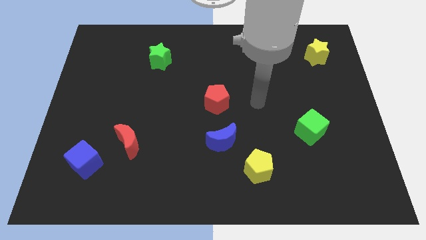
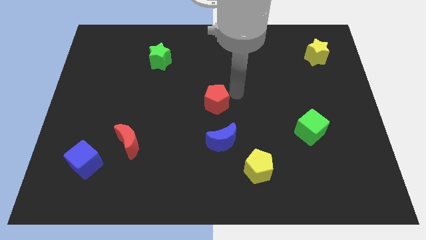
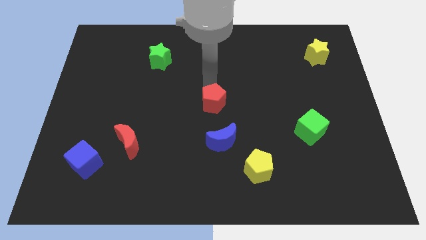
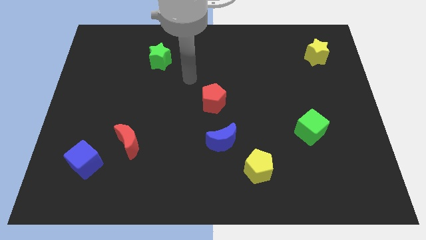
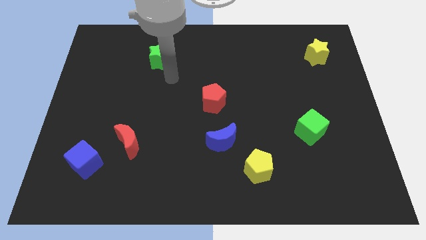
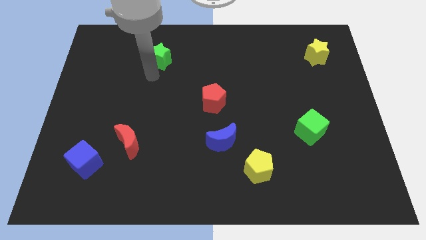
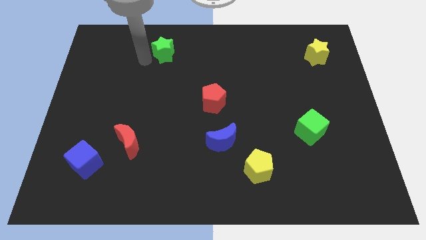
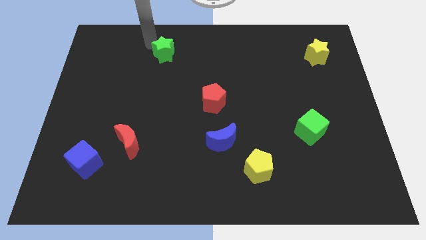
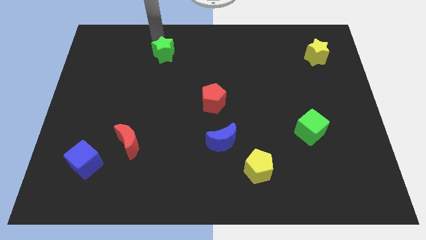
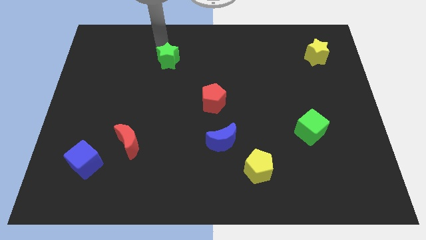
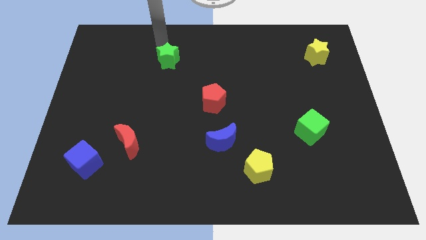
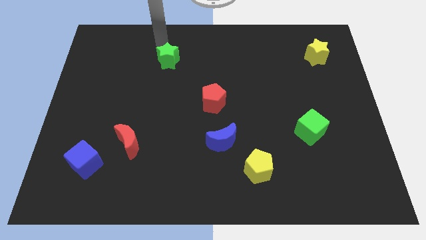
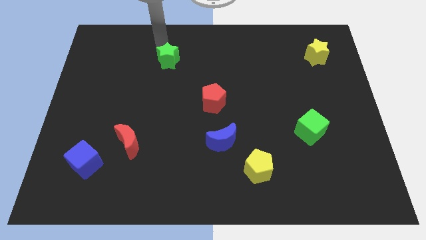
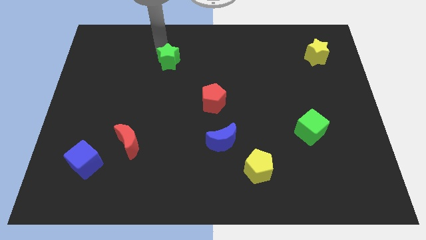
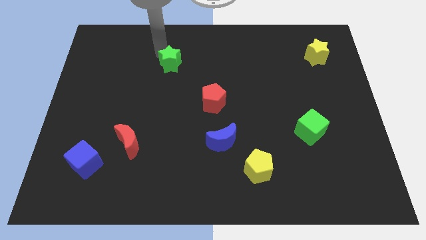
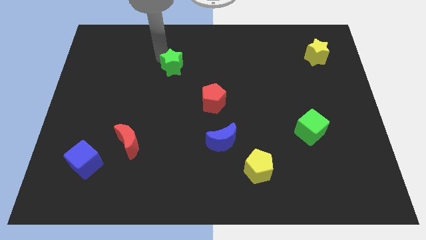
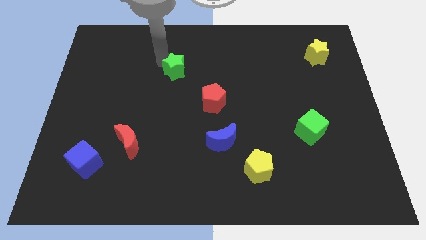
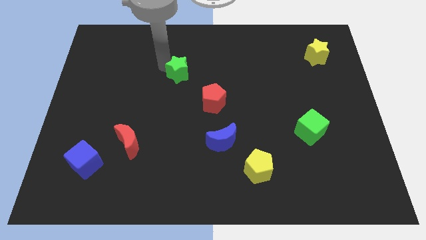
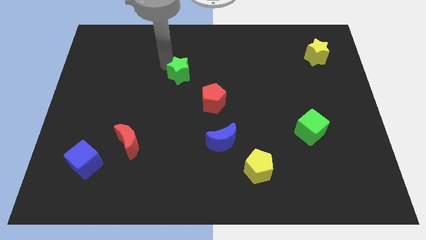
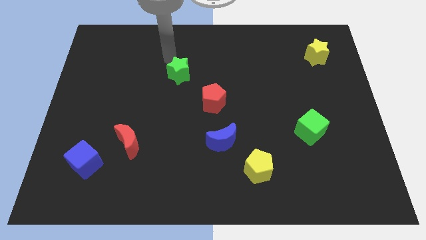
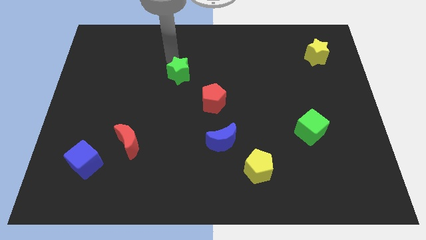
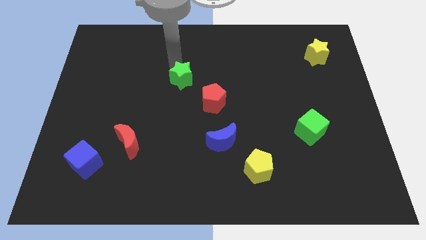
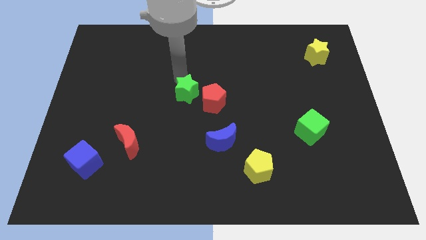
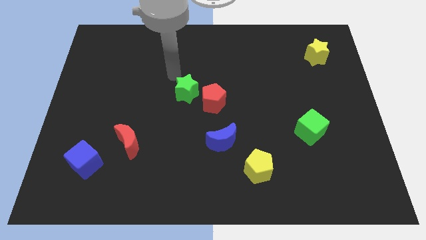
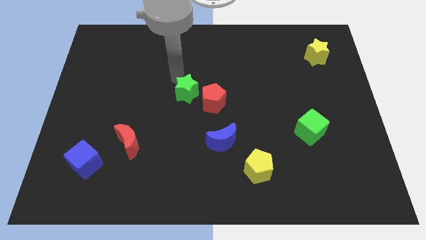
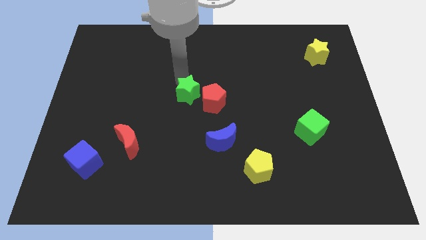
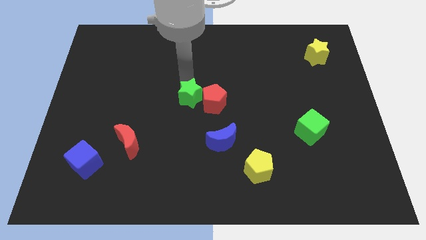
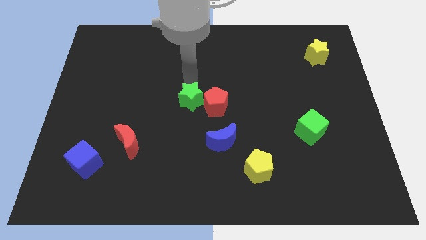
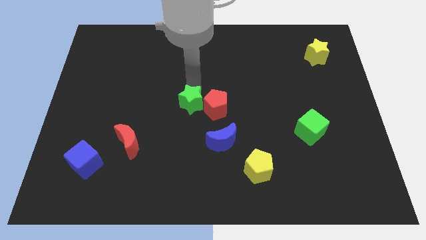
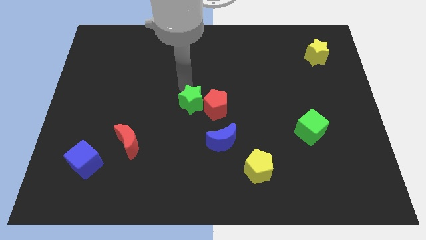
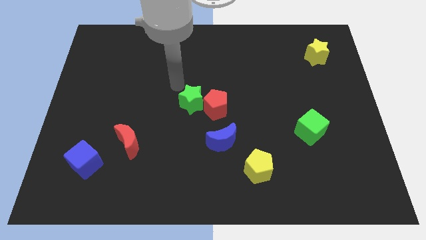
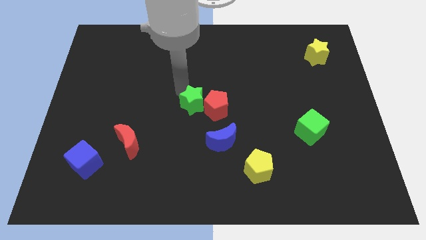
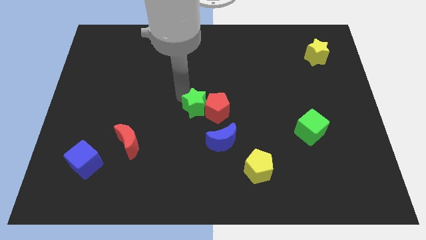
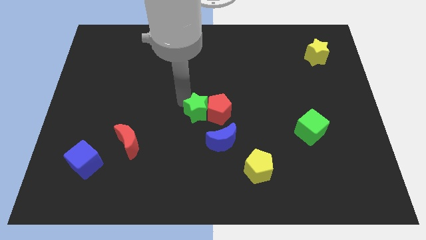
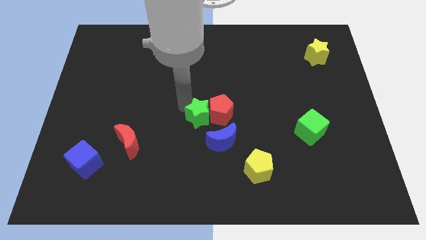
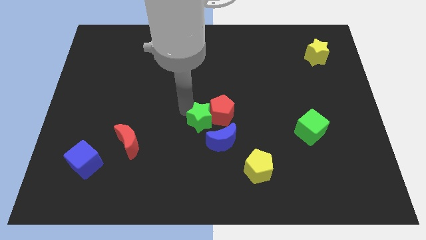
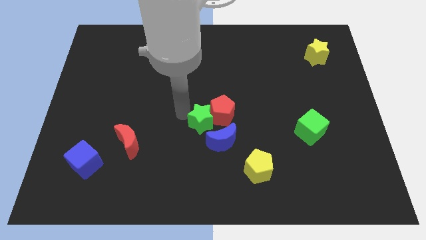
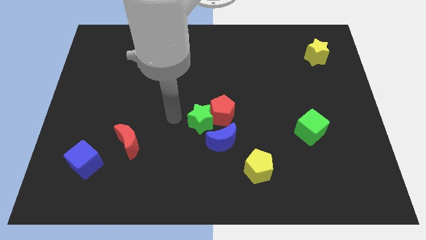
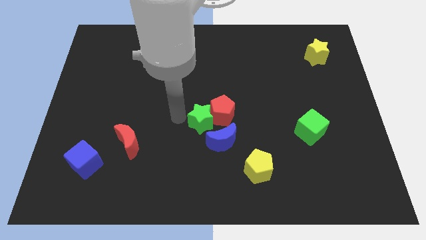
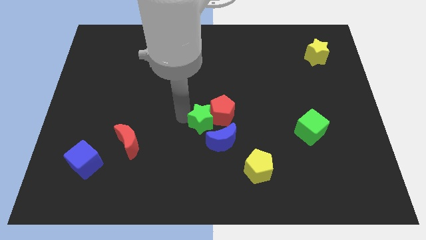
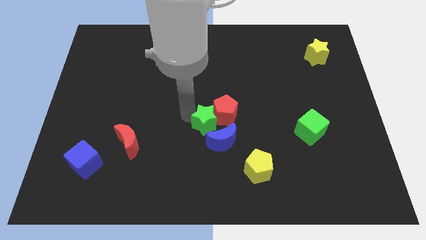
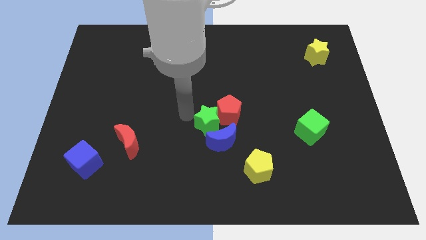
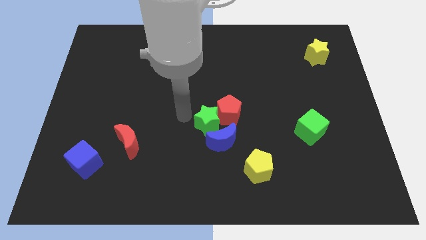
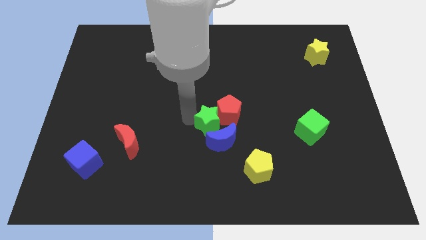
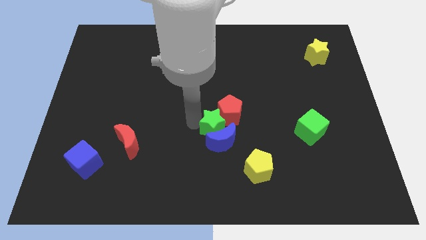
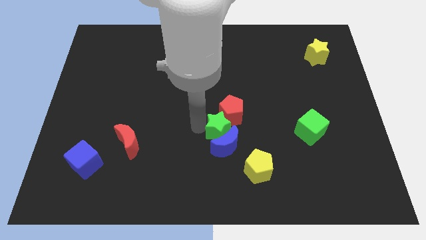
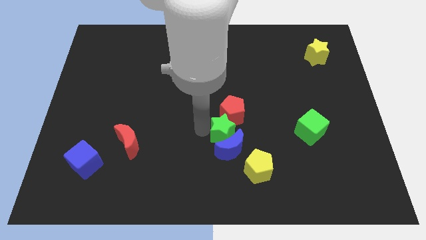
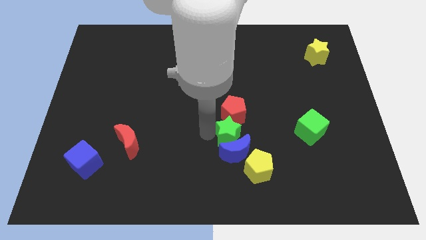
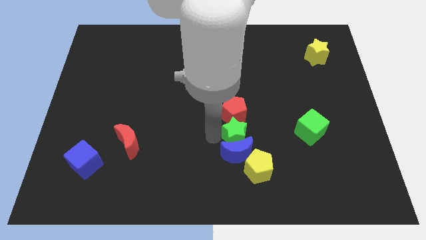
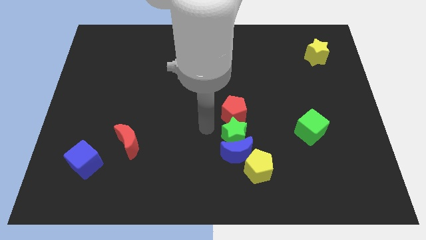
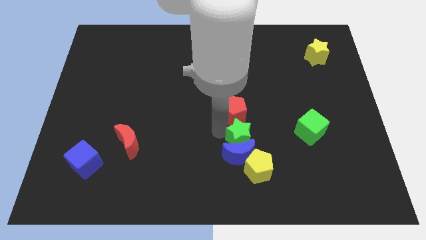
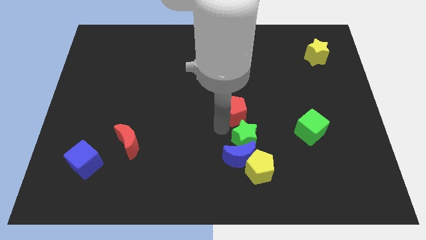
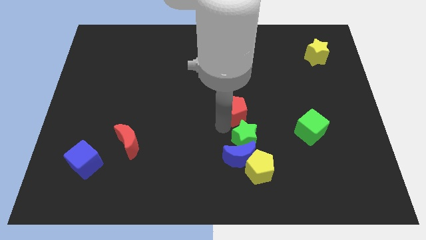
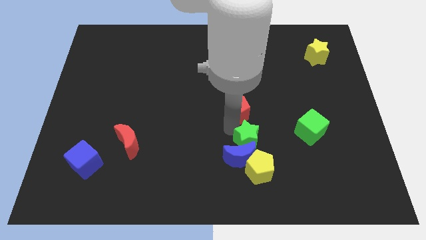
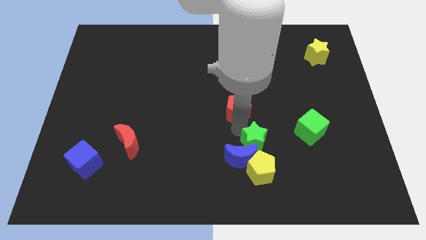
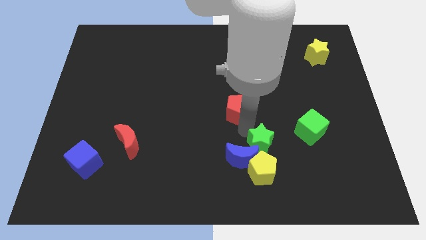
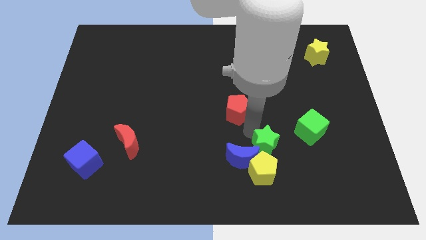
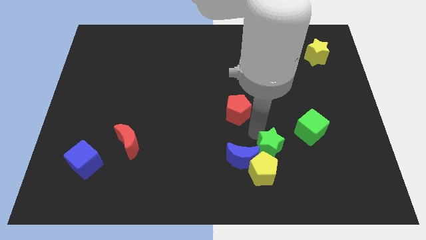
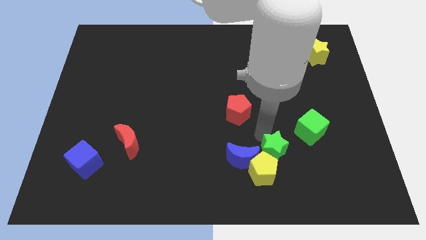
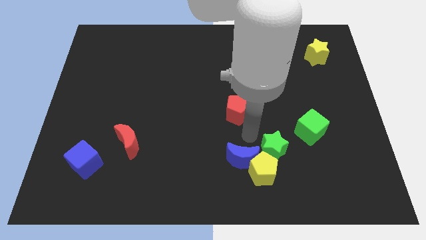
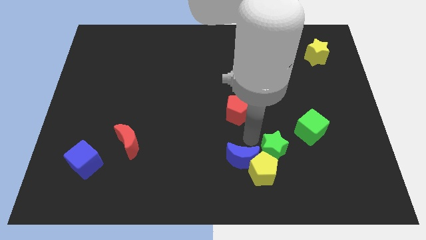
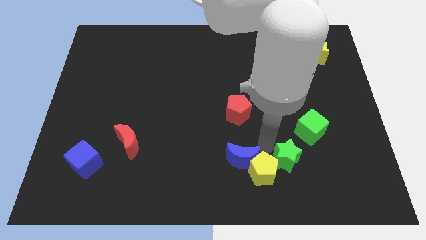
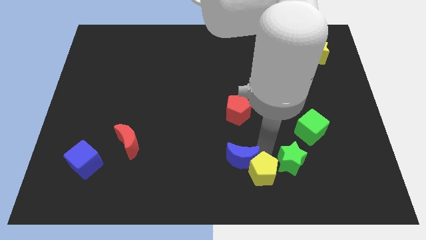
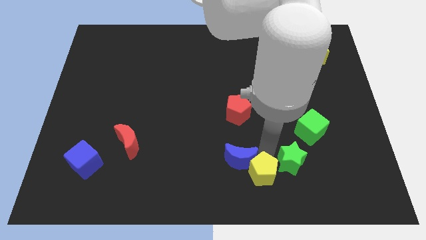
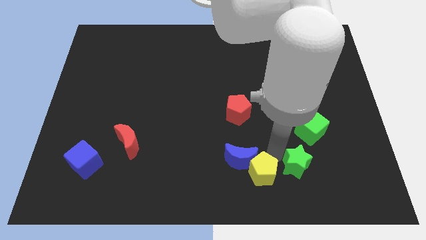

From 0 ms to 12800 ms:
move the green star to the bottom side of the green cube
